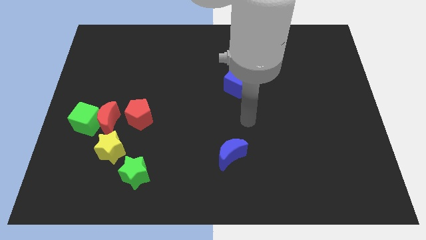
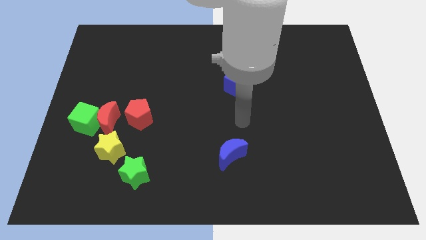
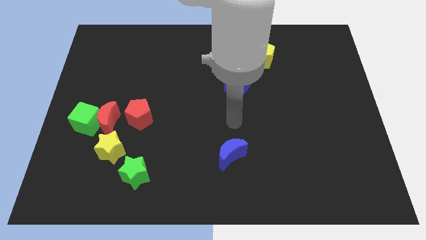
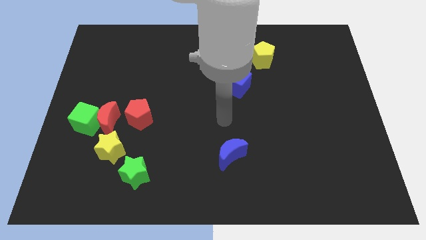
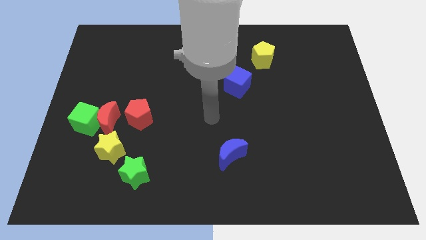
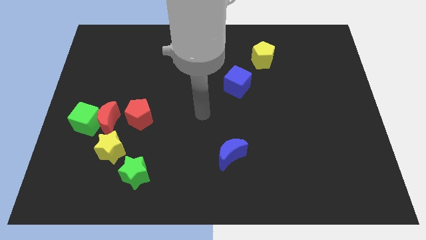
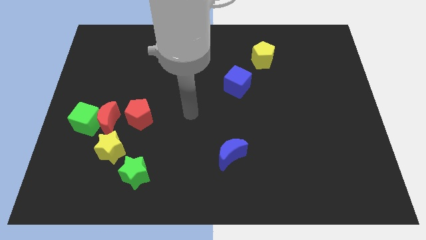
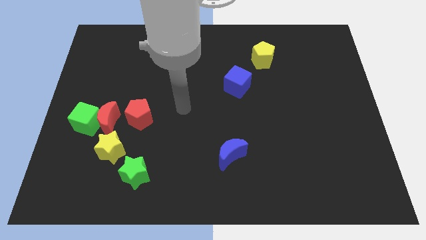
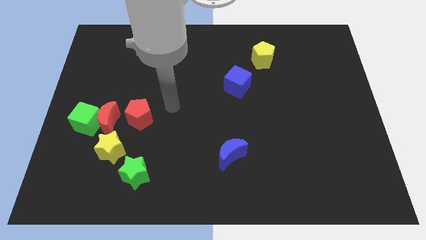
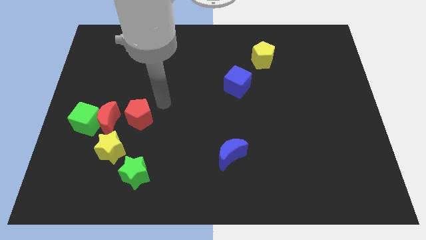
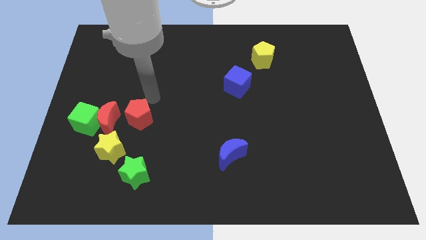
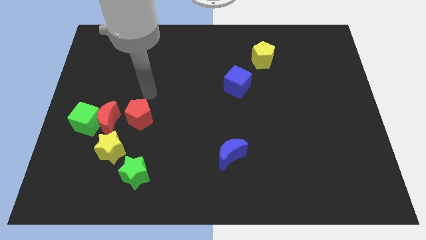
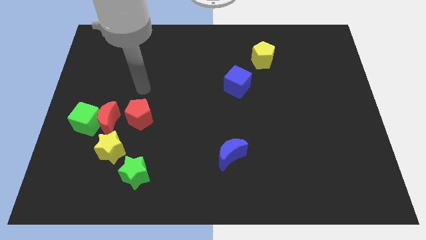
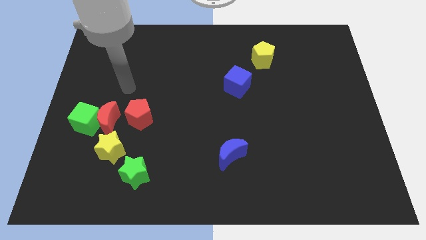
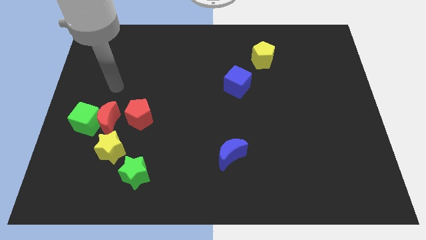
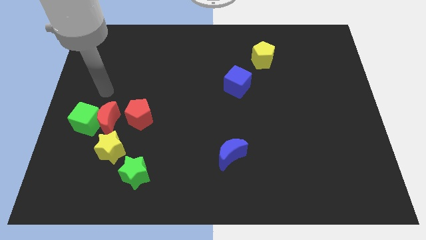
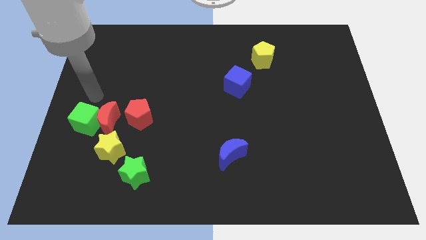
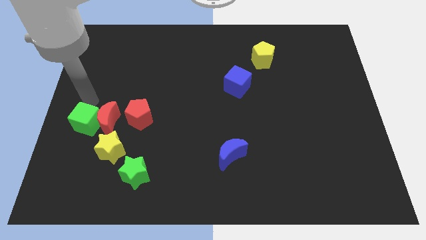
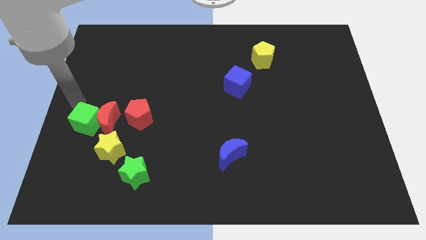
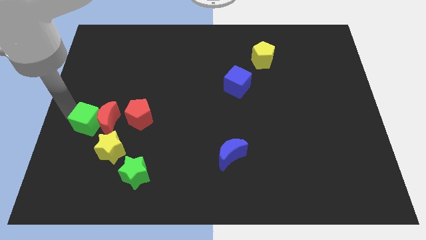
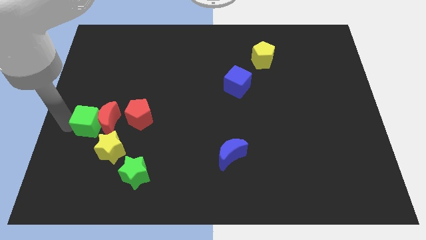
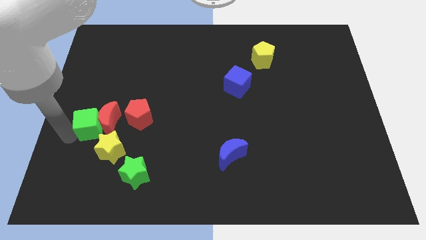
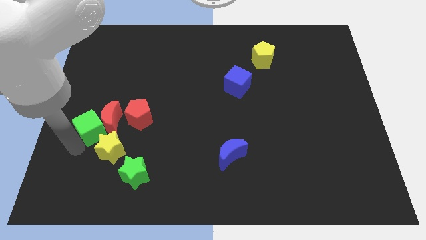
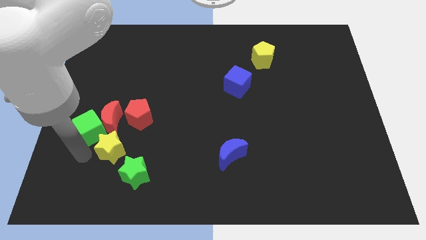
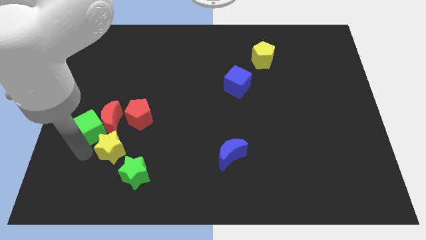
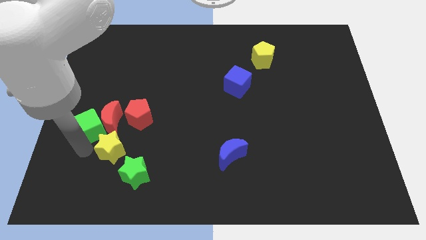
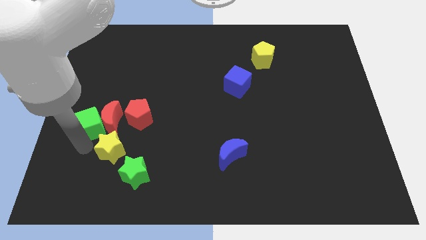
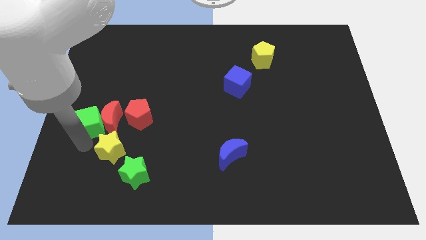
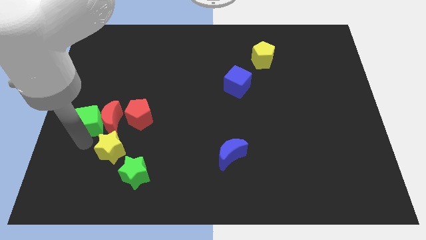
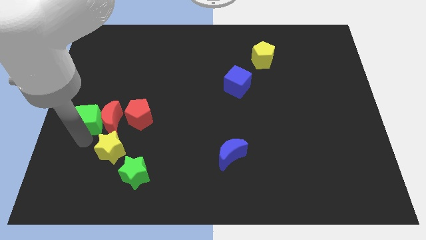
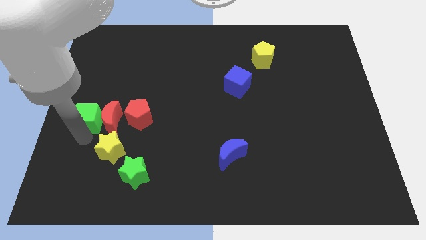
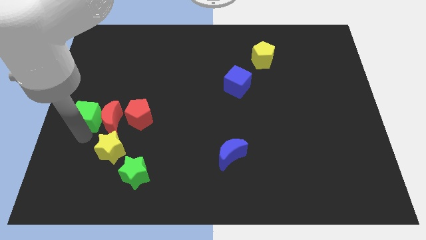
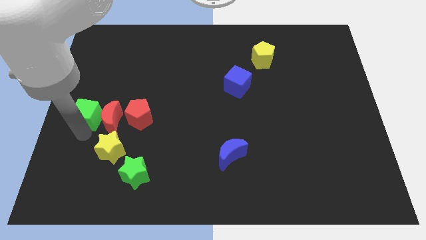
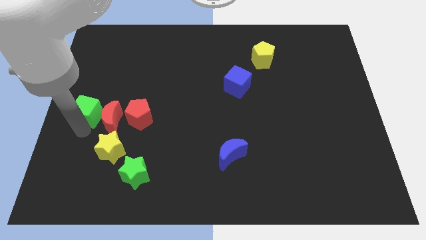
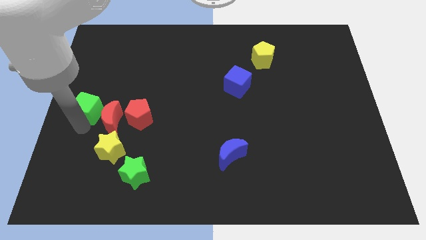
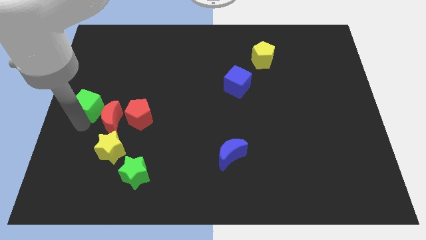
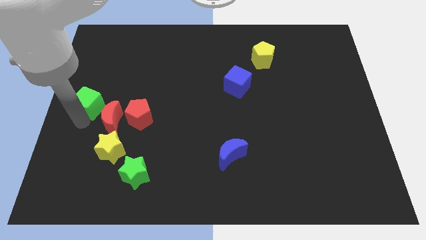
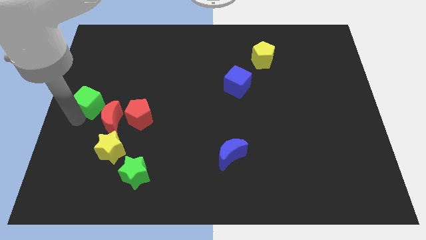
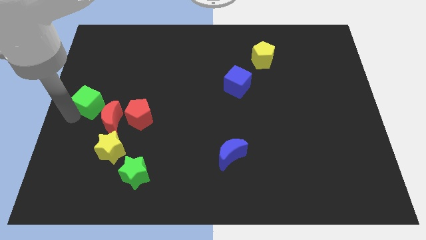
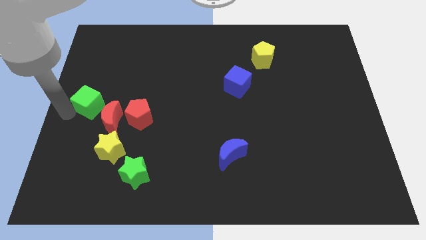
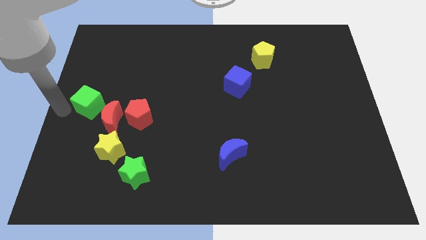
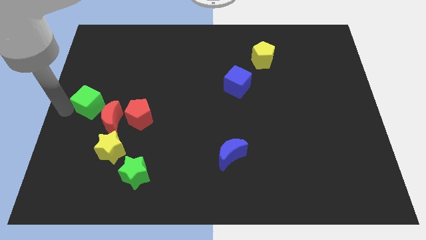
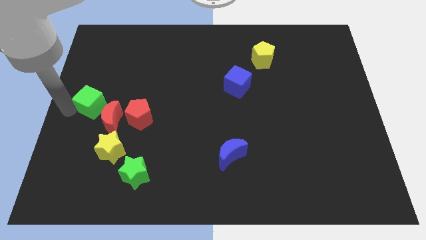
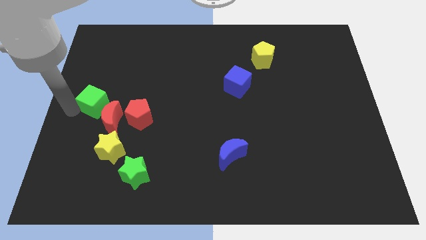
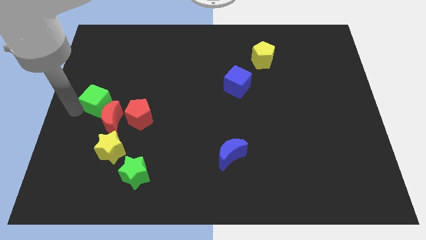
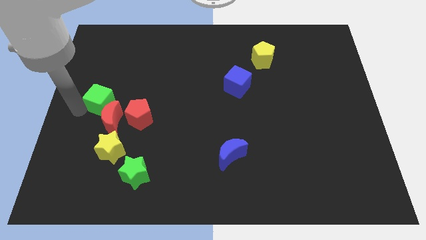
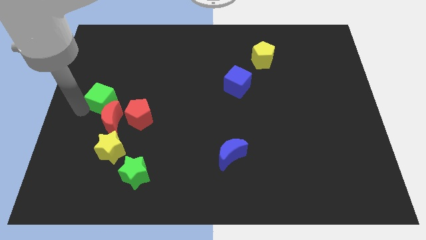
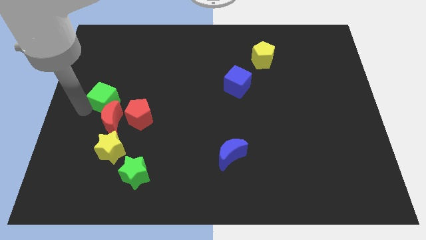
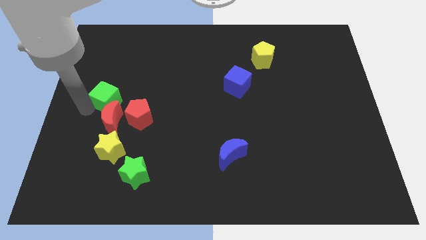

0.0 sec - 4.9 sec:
slightly push the green cube upwards and to the right diagonally

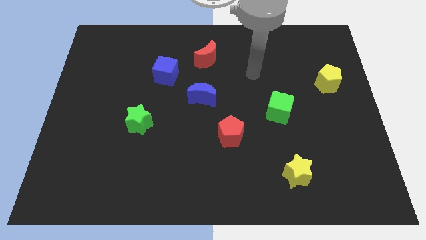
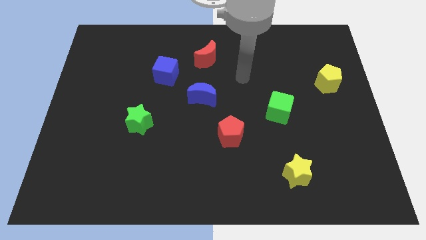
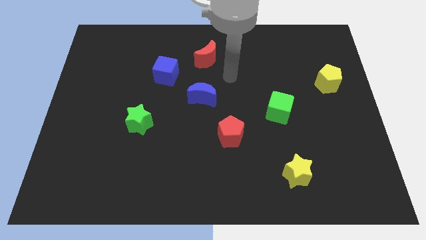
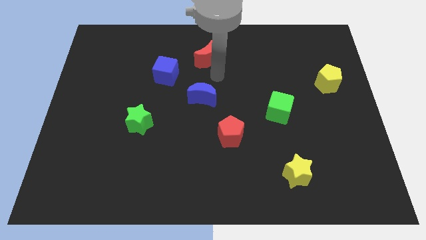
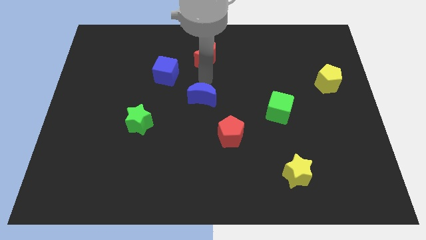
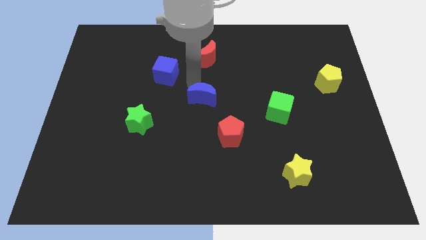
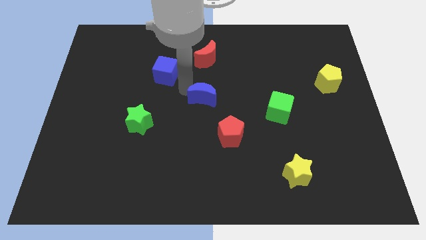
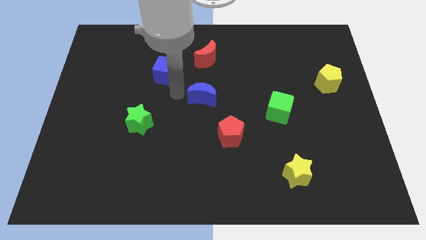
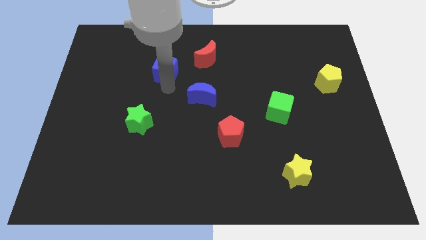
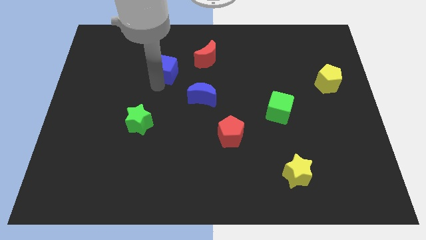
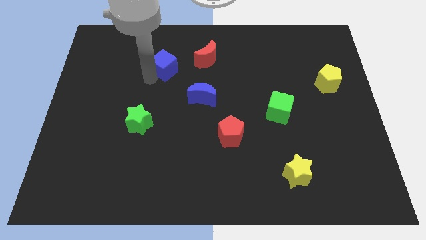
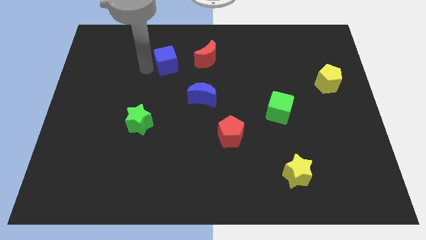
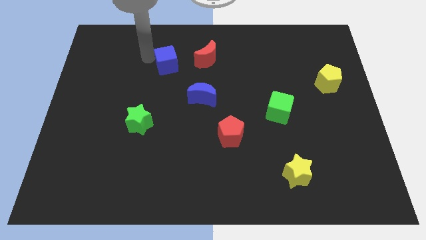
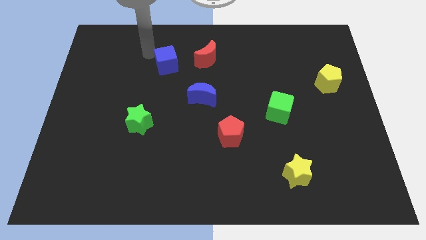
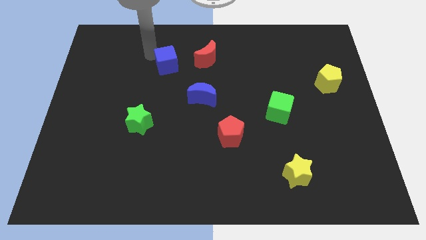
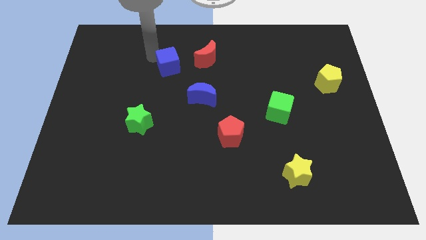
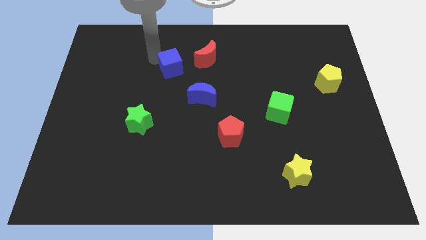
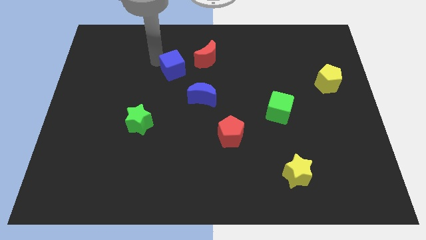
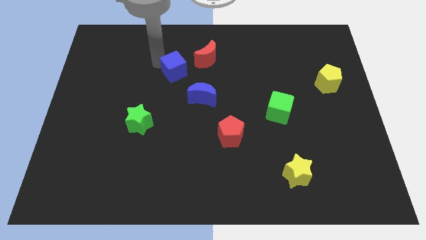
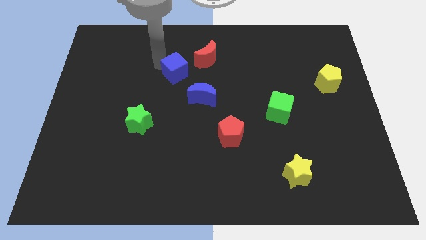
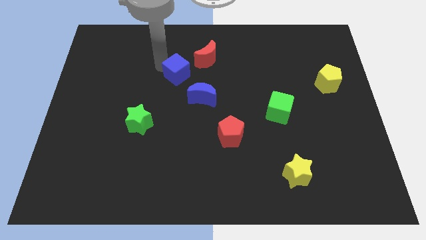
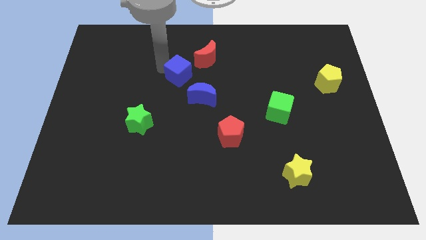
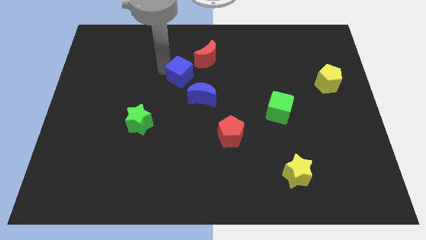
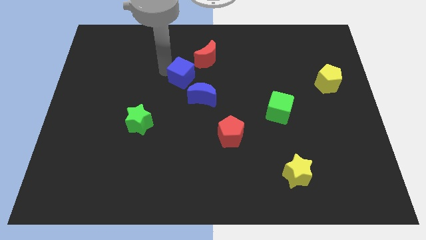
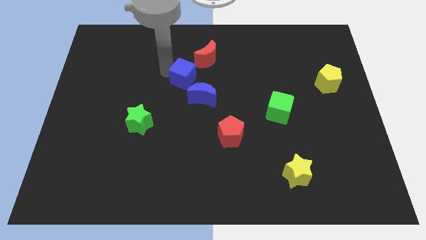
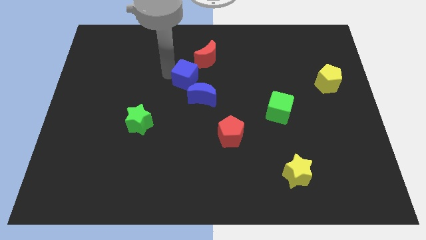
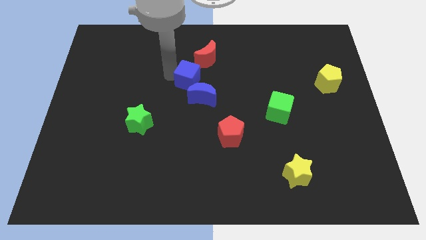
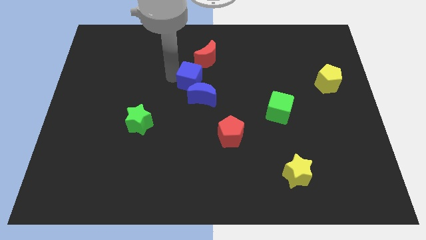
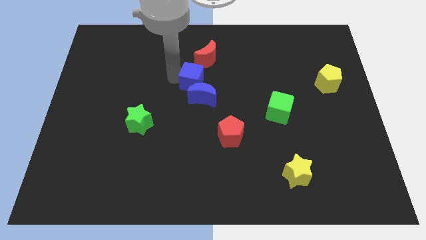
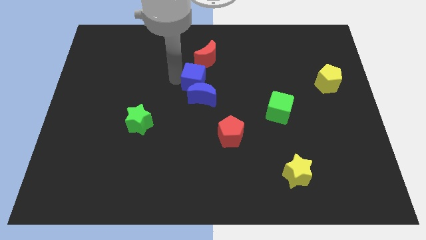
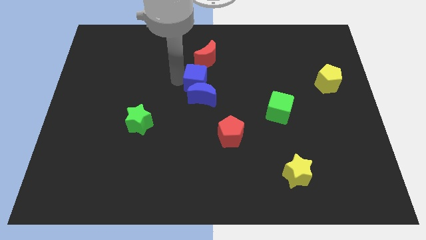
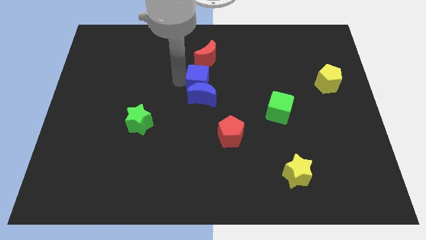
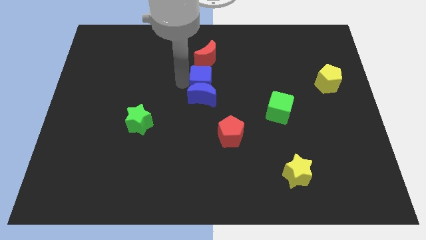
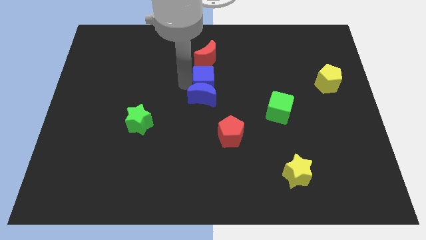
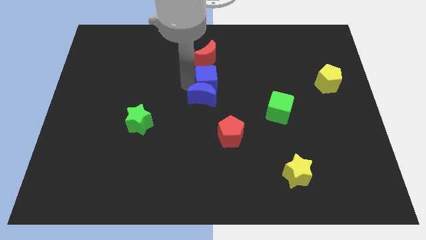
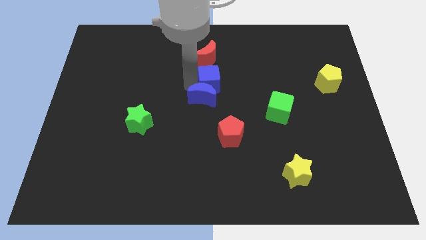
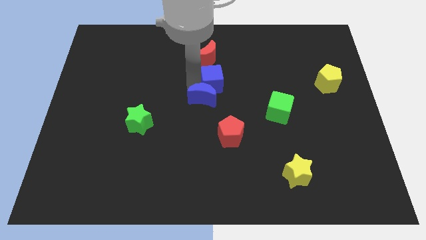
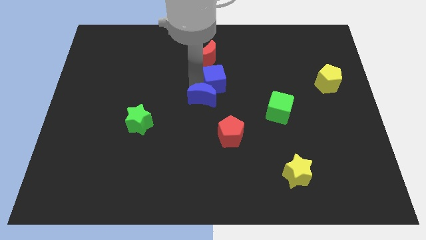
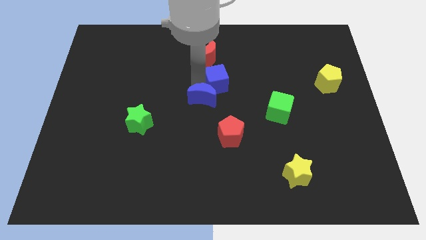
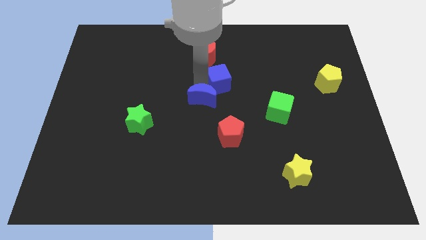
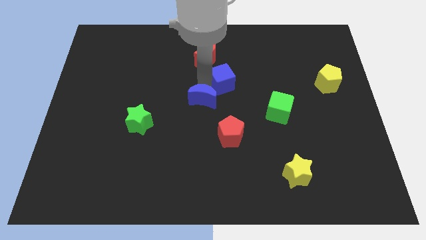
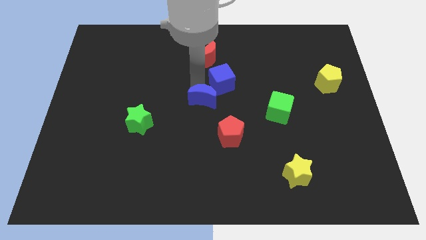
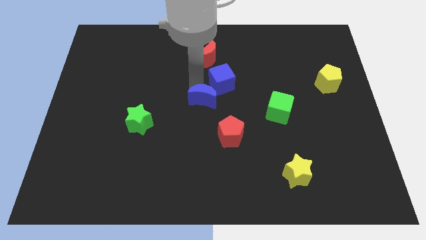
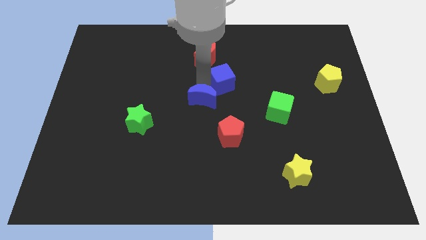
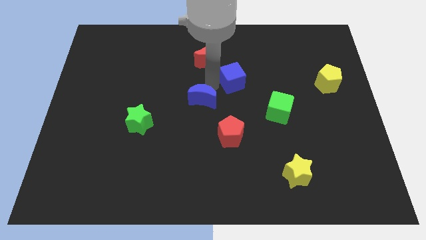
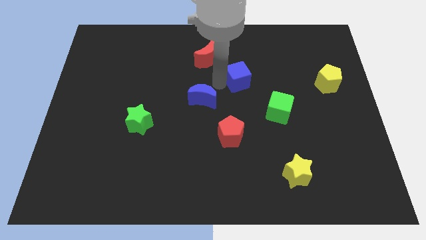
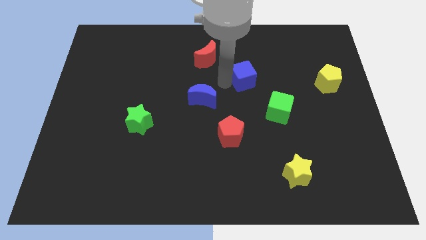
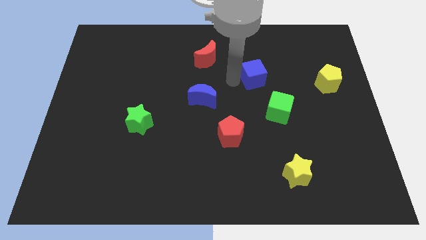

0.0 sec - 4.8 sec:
push the blue cube right
